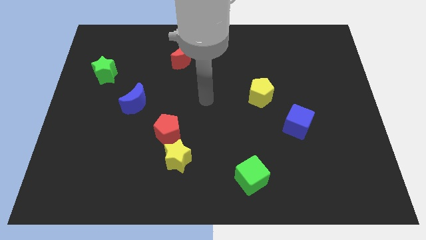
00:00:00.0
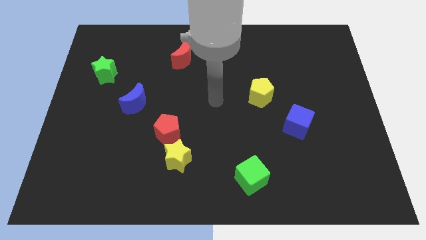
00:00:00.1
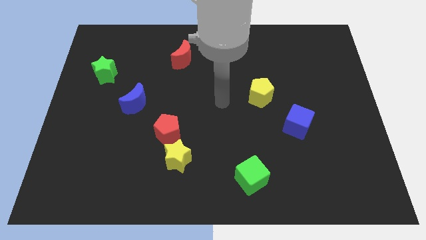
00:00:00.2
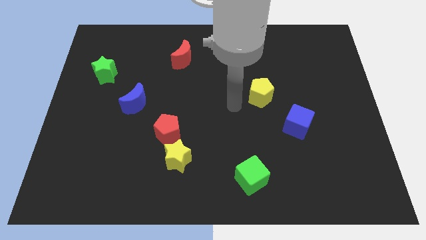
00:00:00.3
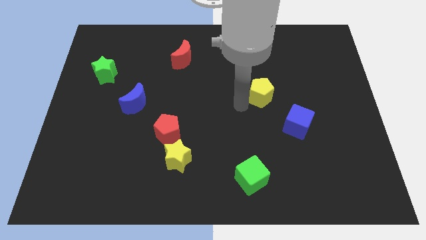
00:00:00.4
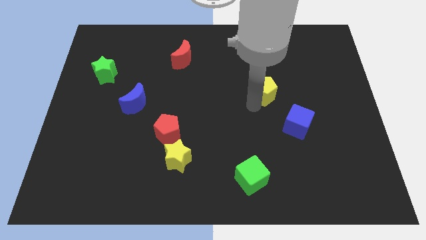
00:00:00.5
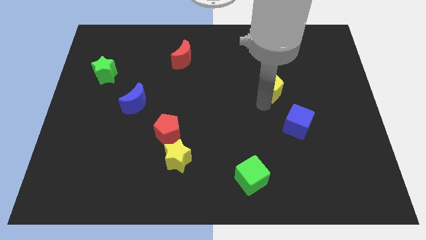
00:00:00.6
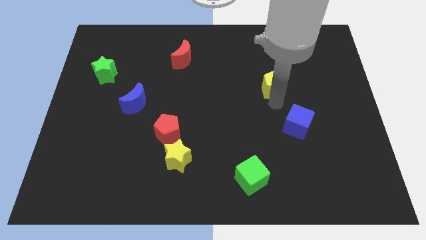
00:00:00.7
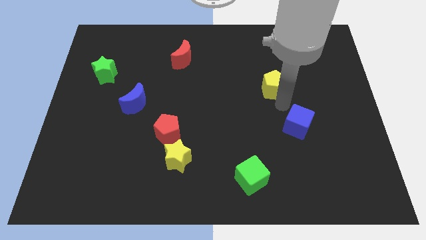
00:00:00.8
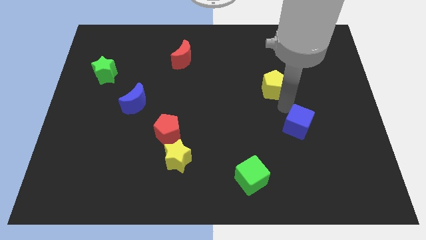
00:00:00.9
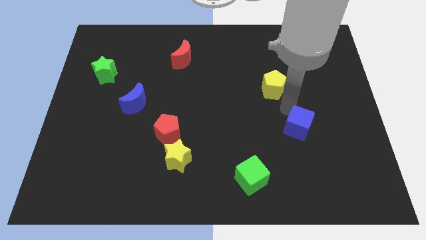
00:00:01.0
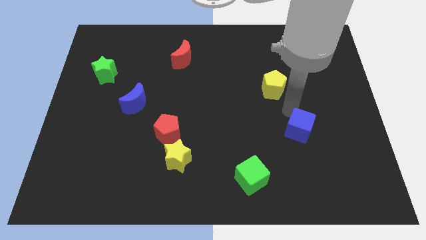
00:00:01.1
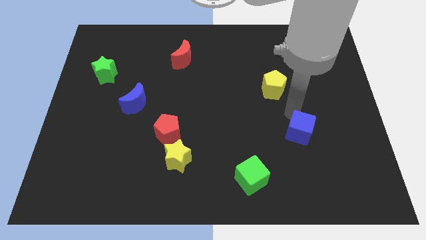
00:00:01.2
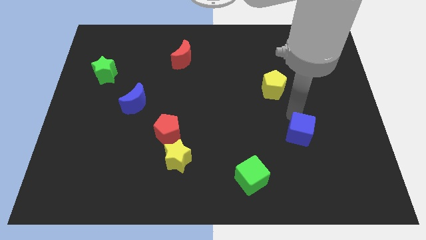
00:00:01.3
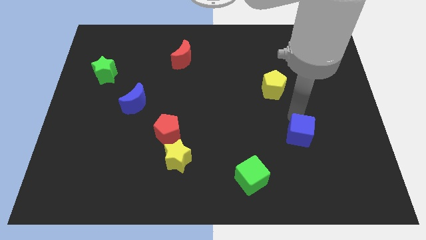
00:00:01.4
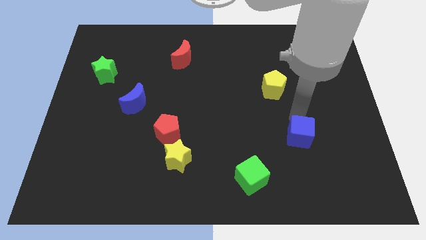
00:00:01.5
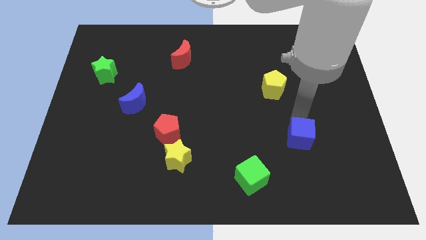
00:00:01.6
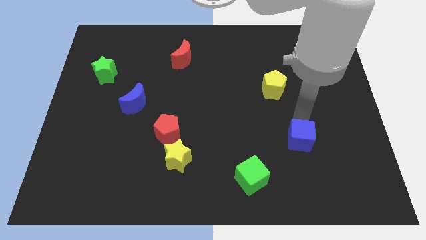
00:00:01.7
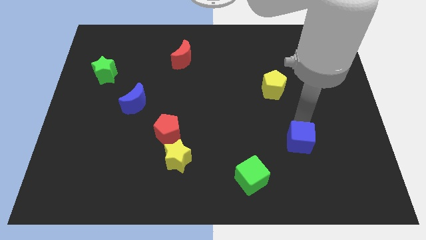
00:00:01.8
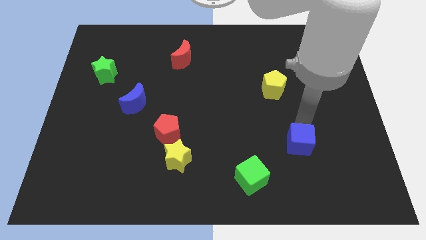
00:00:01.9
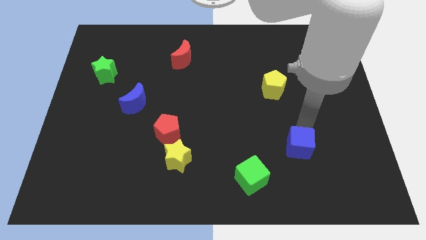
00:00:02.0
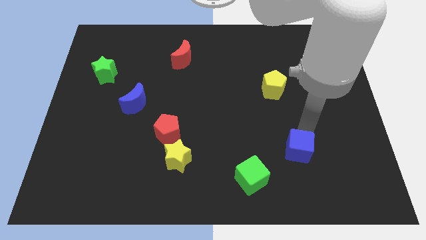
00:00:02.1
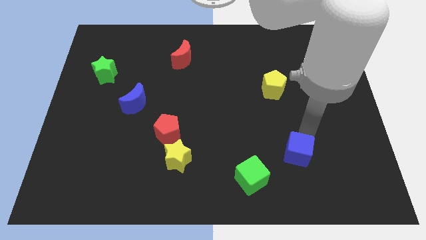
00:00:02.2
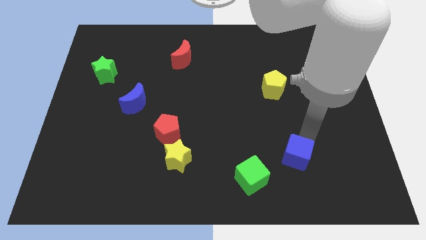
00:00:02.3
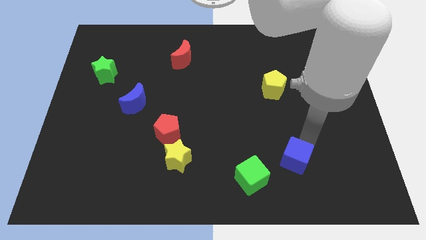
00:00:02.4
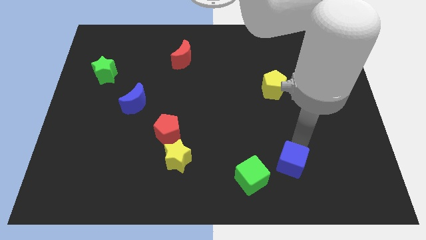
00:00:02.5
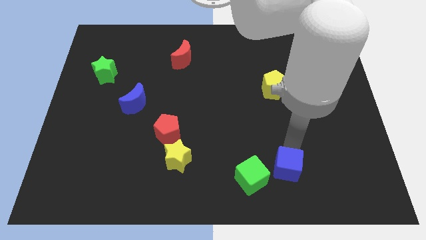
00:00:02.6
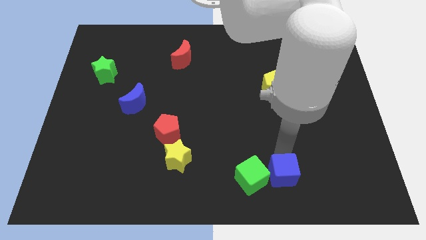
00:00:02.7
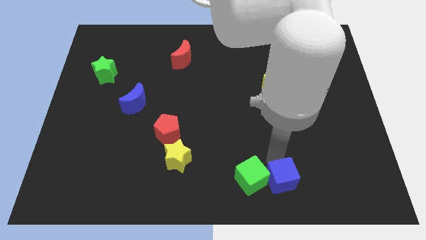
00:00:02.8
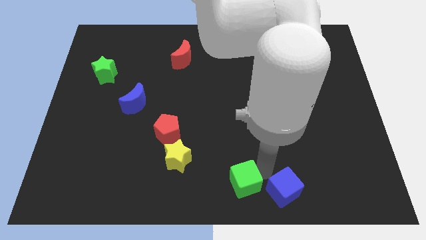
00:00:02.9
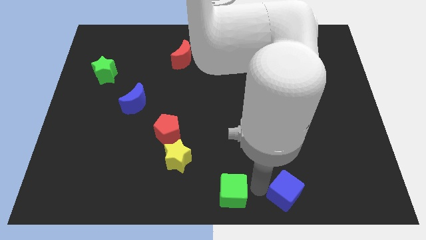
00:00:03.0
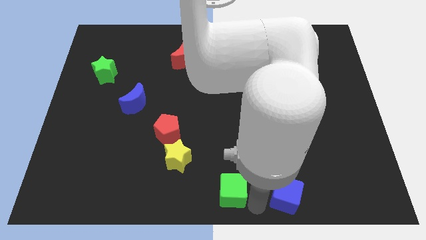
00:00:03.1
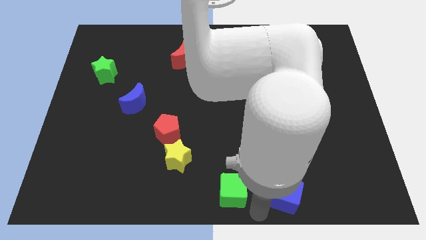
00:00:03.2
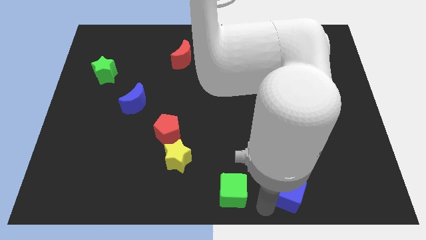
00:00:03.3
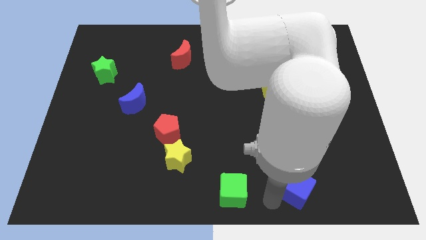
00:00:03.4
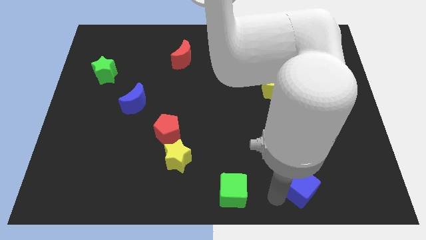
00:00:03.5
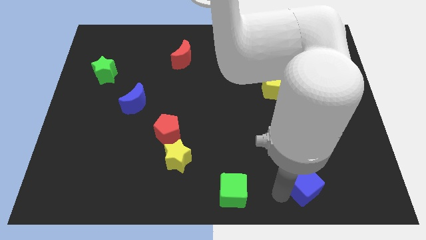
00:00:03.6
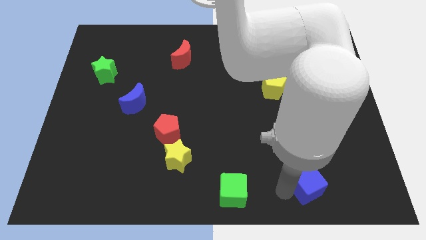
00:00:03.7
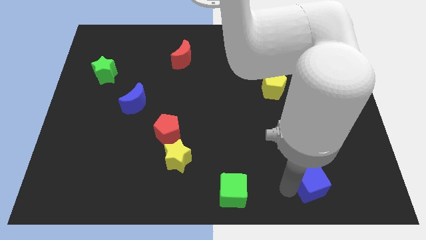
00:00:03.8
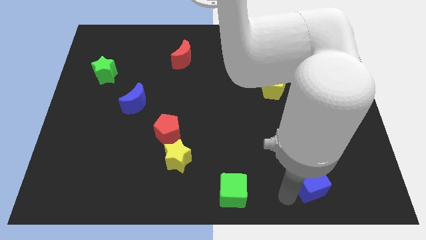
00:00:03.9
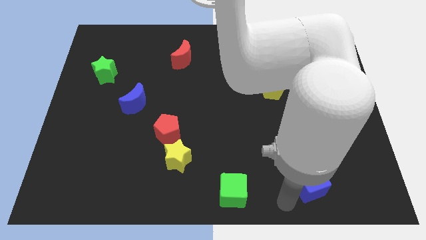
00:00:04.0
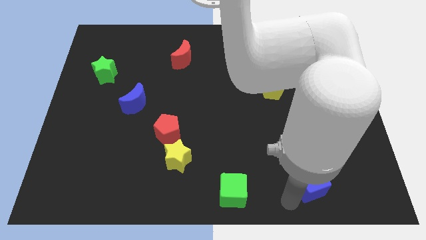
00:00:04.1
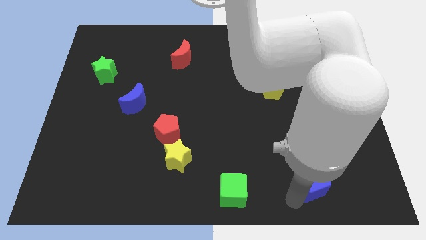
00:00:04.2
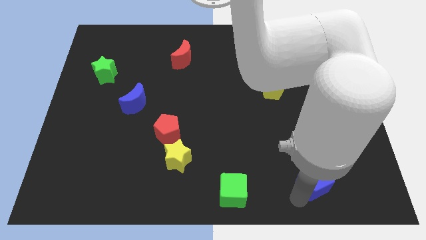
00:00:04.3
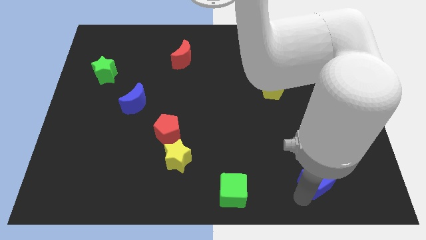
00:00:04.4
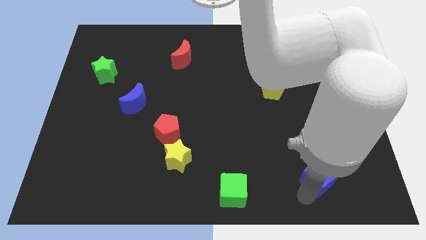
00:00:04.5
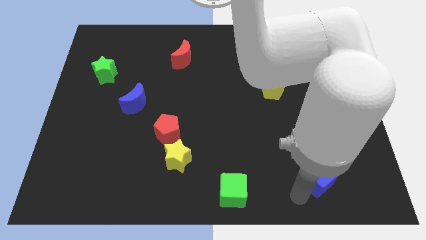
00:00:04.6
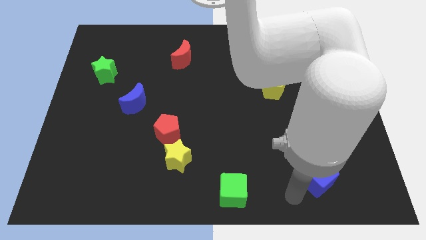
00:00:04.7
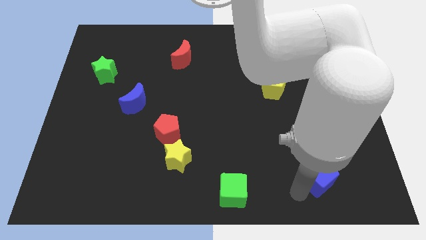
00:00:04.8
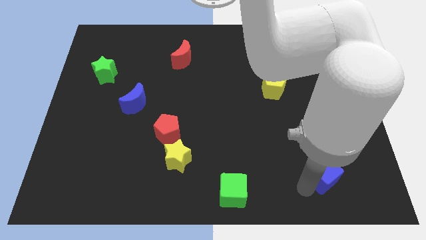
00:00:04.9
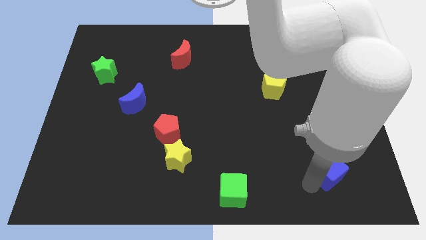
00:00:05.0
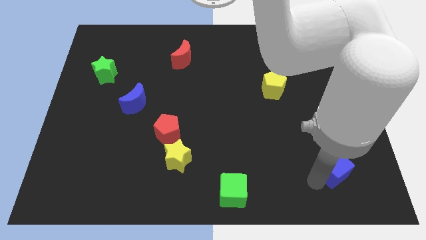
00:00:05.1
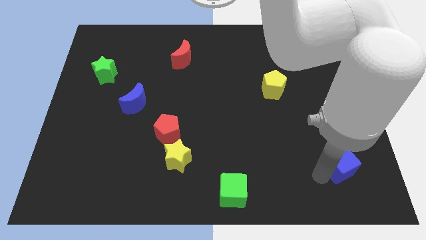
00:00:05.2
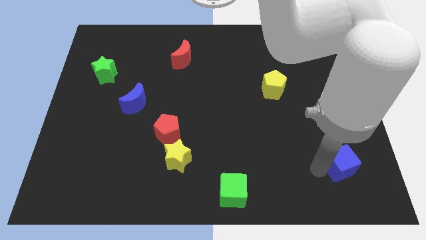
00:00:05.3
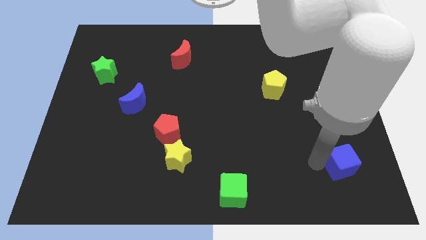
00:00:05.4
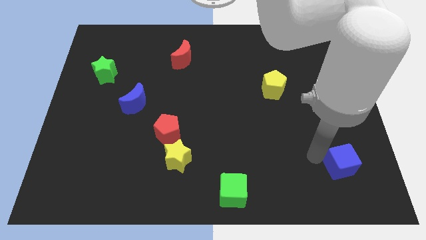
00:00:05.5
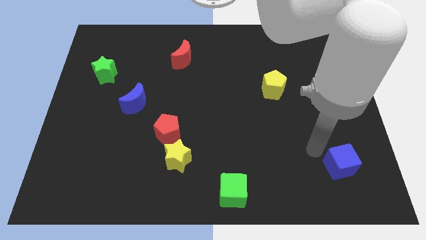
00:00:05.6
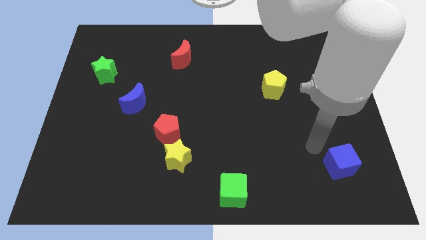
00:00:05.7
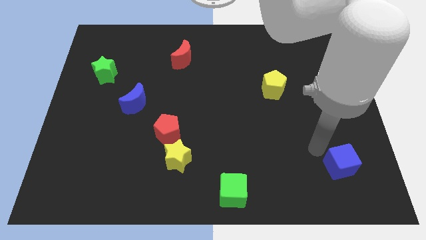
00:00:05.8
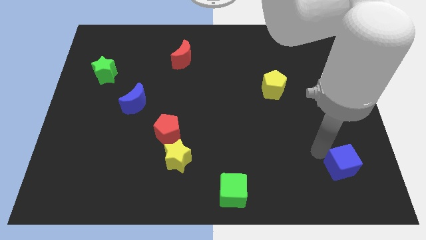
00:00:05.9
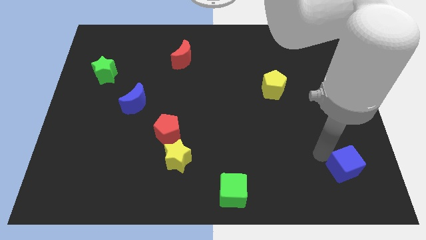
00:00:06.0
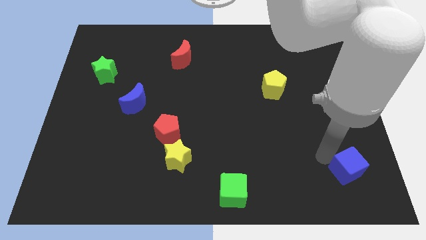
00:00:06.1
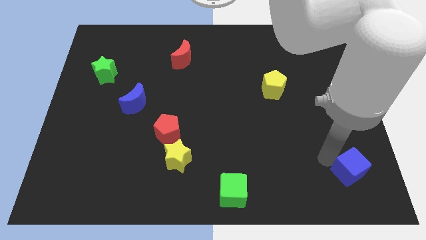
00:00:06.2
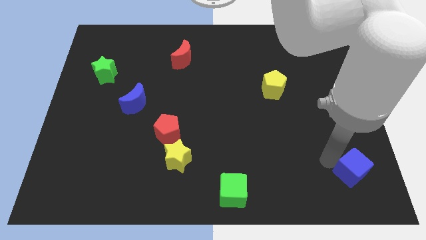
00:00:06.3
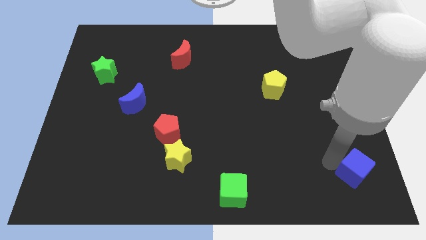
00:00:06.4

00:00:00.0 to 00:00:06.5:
put the blue cube to the bottom right of the board
